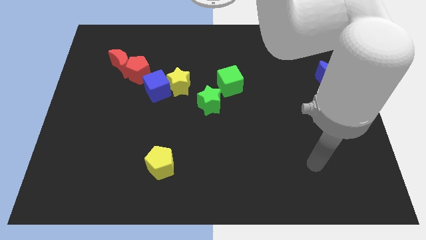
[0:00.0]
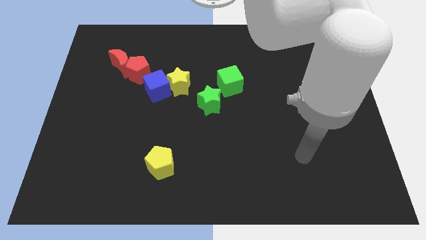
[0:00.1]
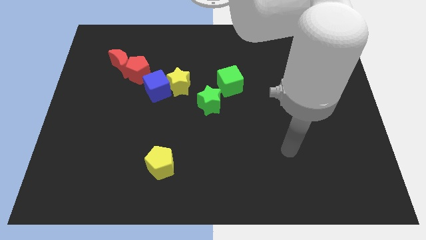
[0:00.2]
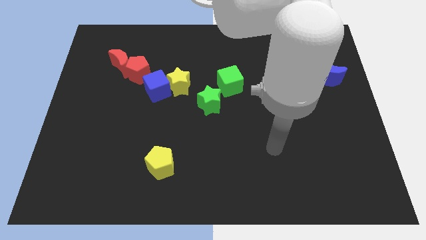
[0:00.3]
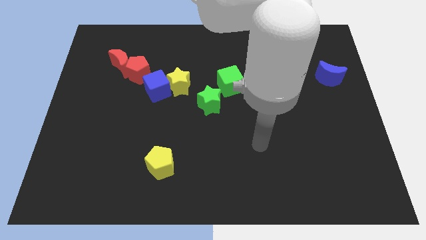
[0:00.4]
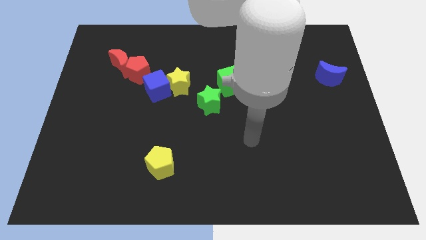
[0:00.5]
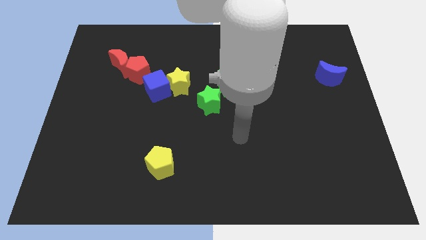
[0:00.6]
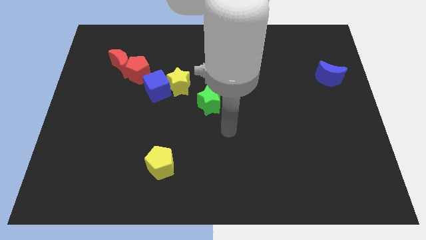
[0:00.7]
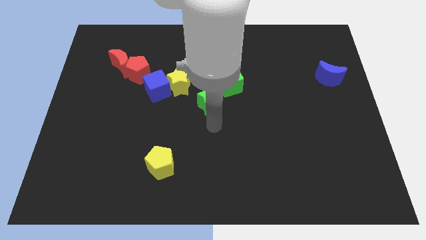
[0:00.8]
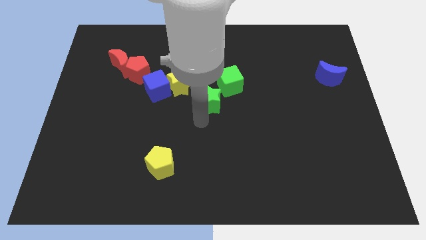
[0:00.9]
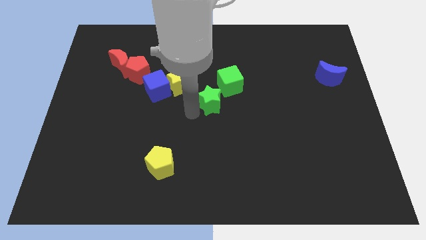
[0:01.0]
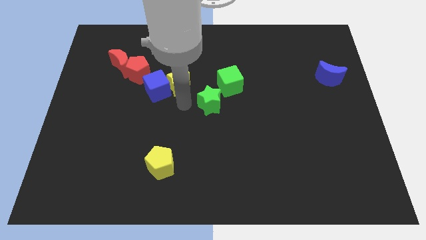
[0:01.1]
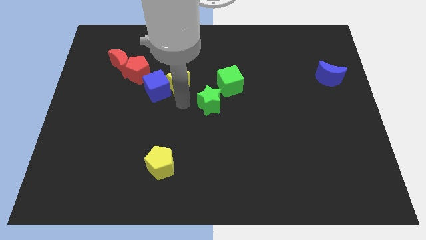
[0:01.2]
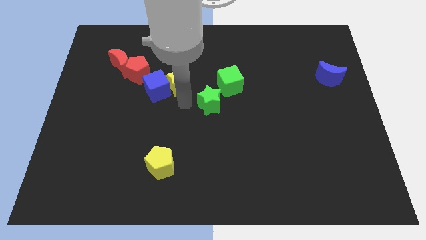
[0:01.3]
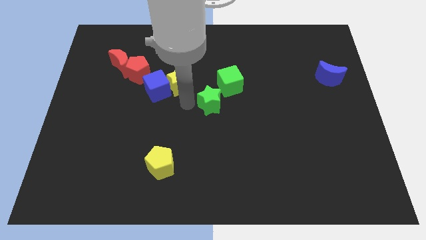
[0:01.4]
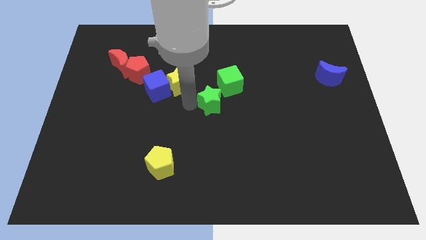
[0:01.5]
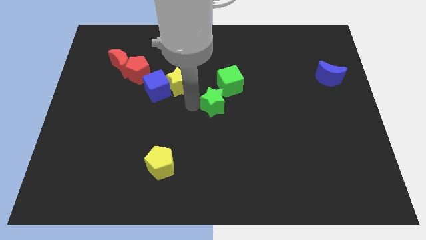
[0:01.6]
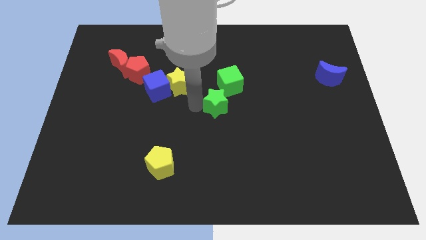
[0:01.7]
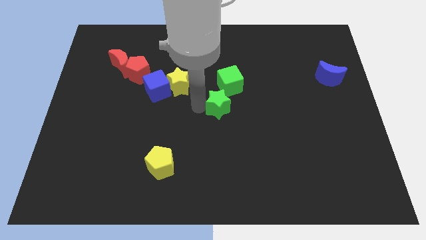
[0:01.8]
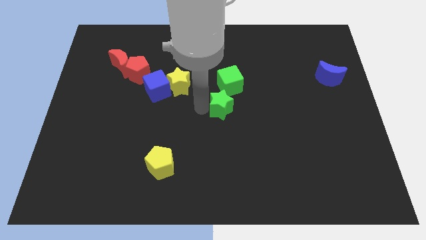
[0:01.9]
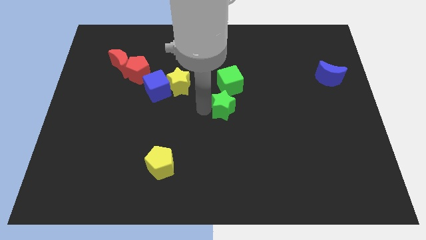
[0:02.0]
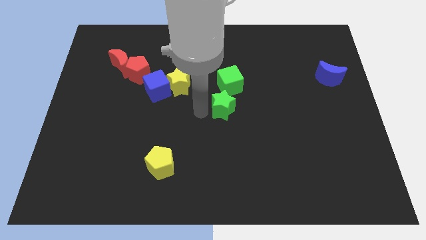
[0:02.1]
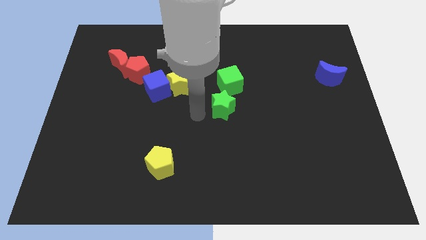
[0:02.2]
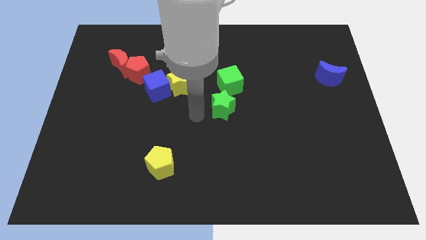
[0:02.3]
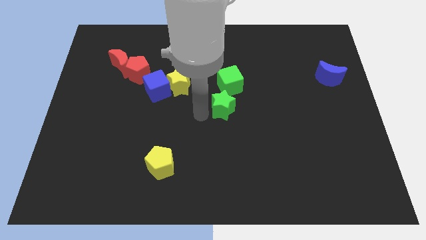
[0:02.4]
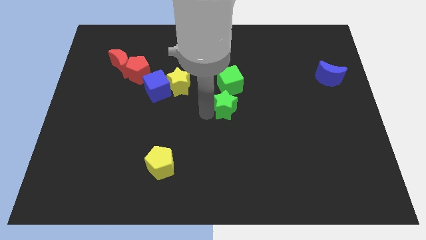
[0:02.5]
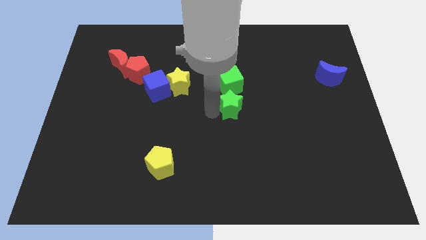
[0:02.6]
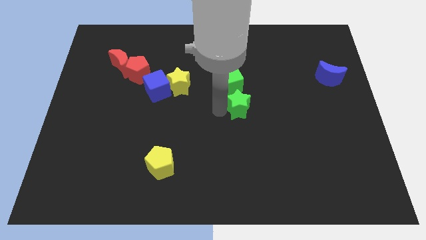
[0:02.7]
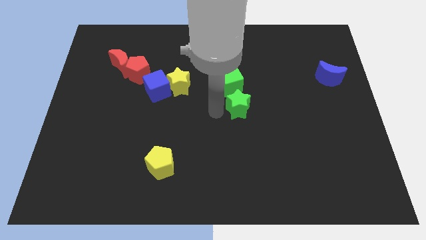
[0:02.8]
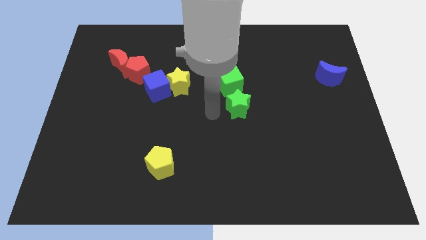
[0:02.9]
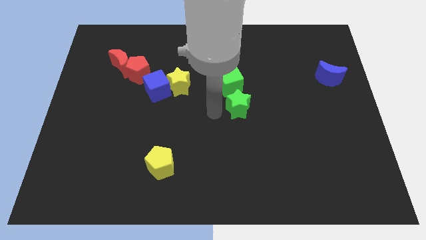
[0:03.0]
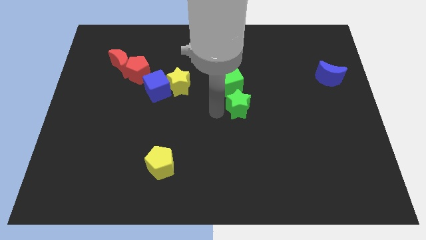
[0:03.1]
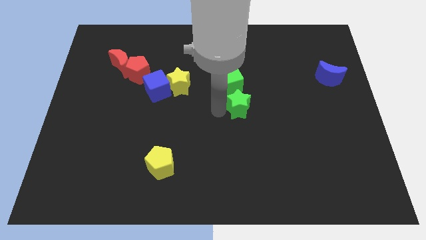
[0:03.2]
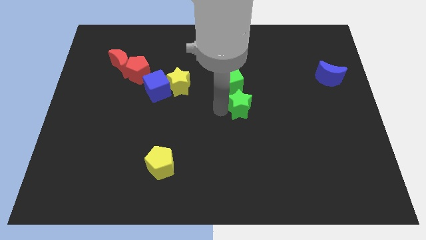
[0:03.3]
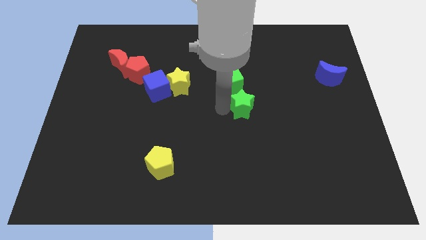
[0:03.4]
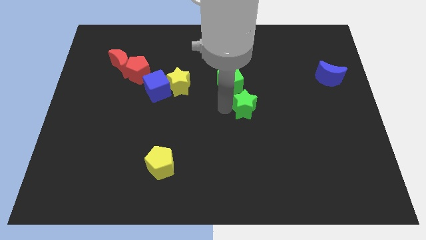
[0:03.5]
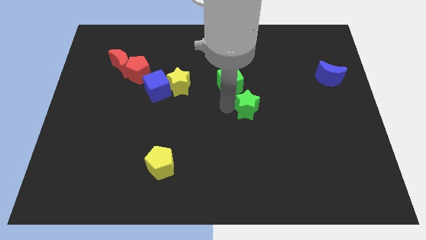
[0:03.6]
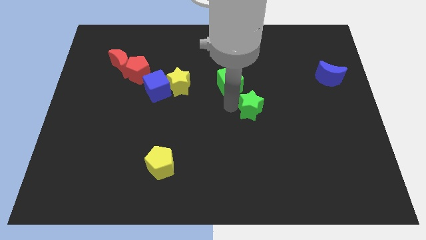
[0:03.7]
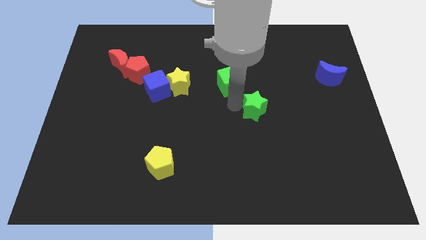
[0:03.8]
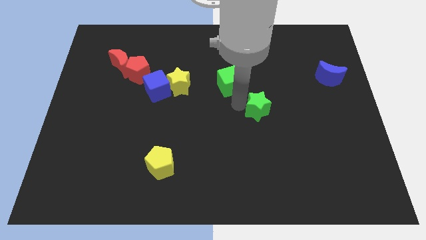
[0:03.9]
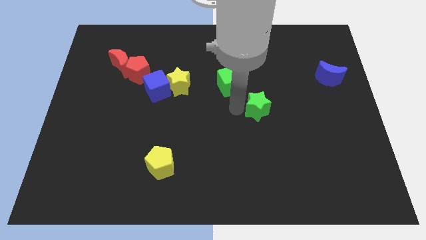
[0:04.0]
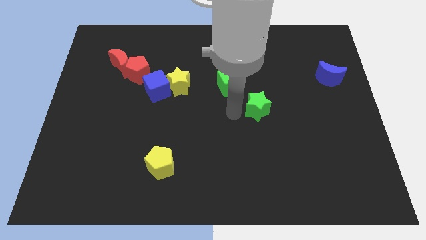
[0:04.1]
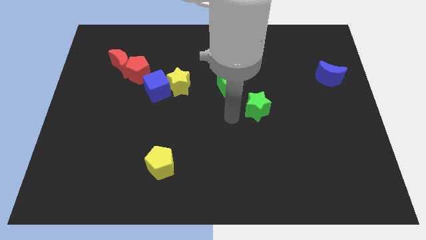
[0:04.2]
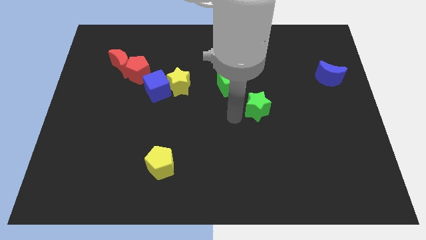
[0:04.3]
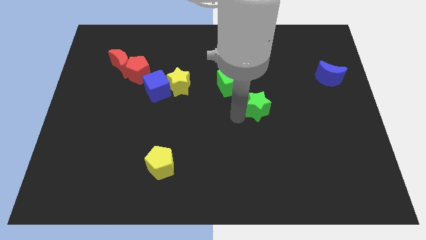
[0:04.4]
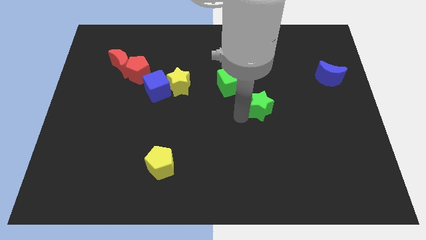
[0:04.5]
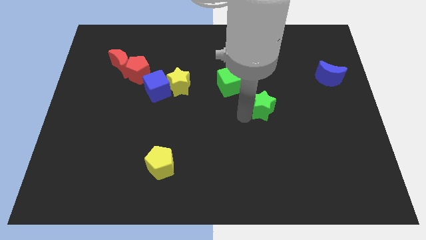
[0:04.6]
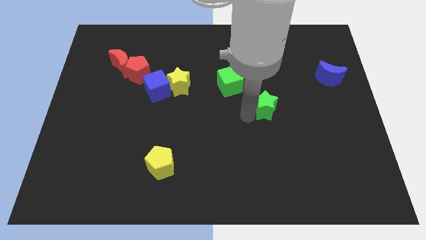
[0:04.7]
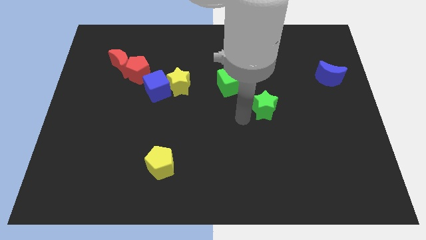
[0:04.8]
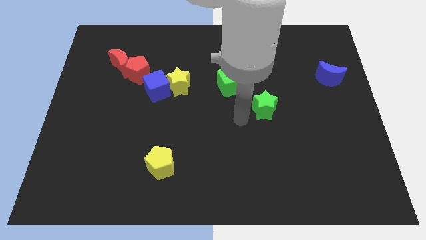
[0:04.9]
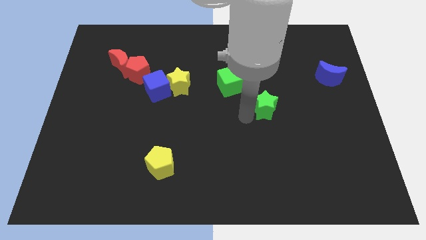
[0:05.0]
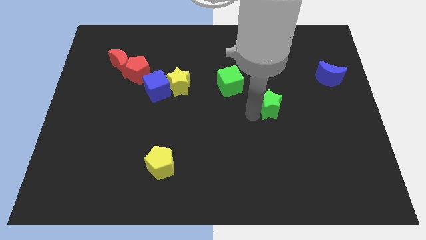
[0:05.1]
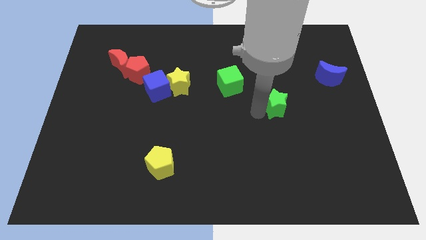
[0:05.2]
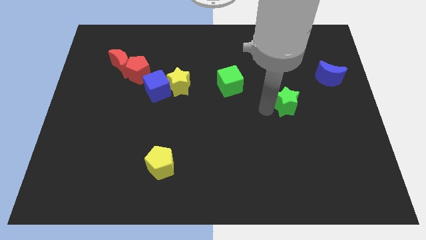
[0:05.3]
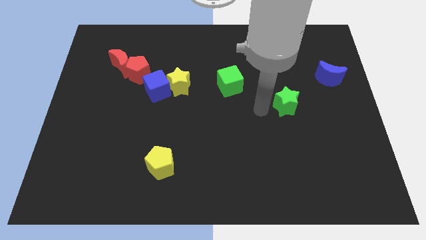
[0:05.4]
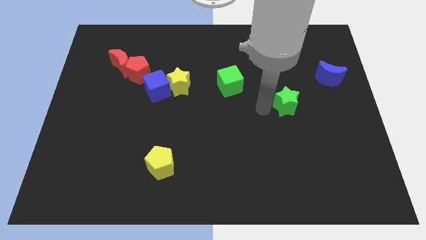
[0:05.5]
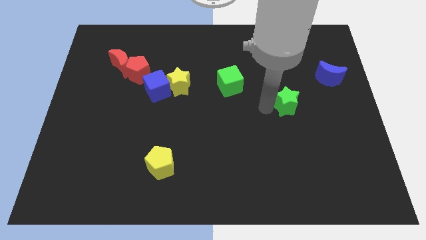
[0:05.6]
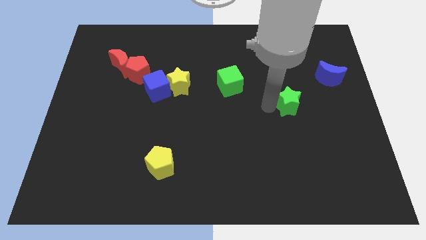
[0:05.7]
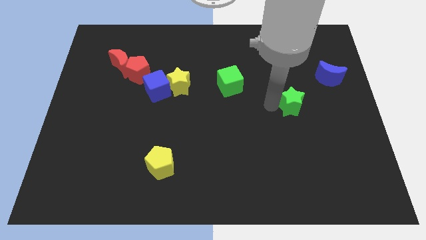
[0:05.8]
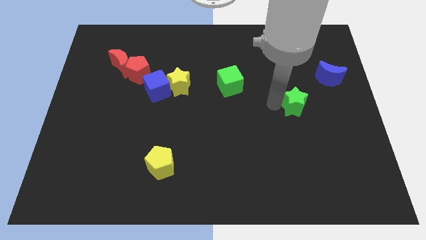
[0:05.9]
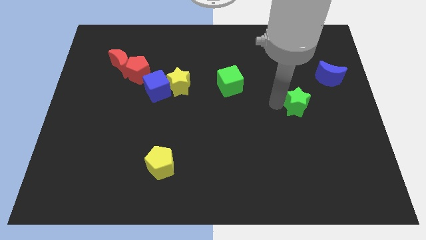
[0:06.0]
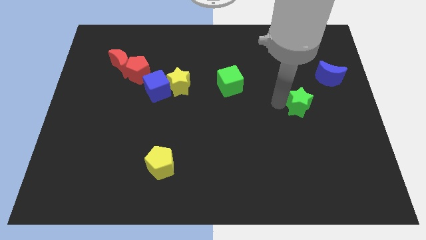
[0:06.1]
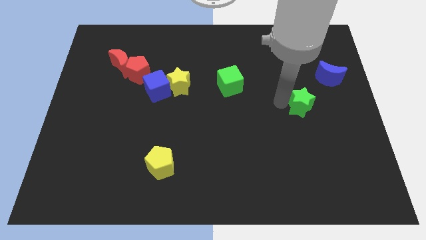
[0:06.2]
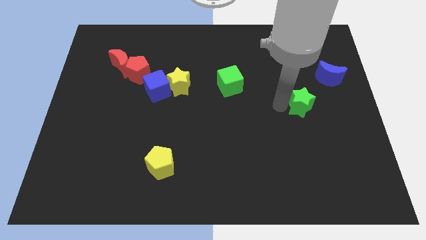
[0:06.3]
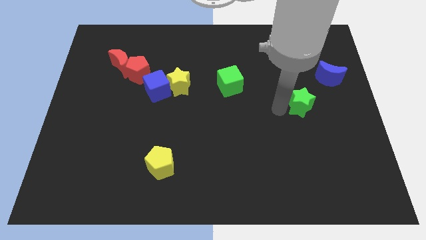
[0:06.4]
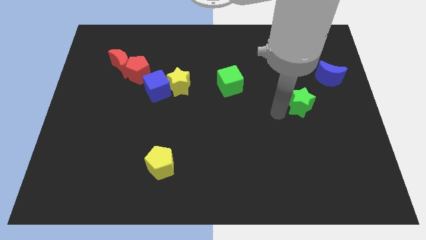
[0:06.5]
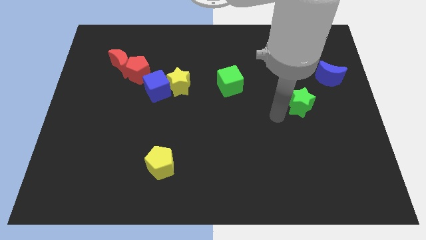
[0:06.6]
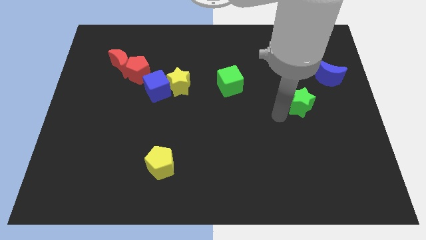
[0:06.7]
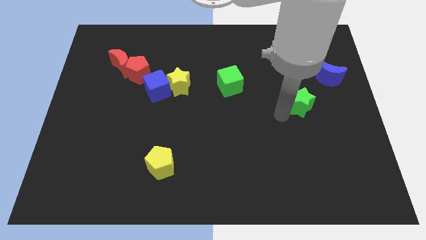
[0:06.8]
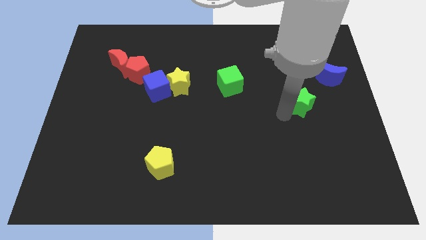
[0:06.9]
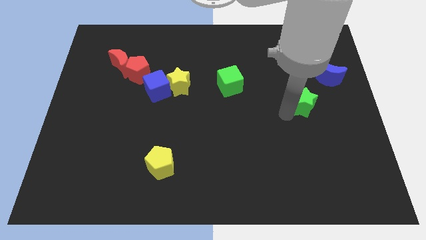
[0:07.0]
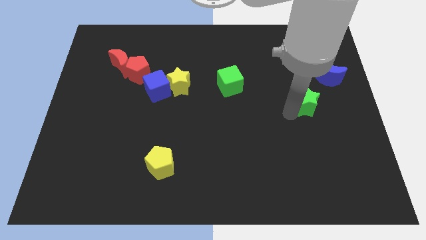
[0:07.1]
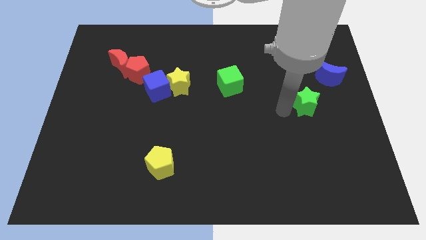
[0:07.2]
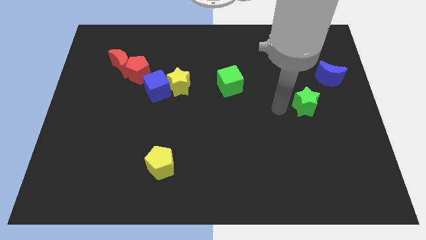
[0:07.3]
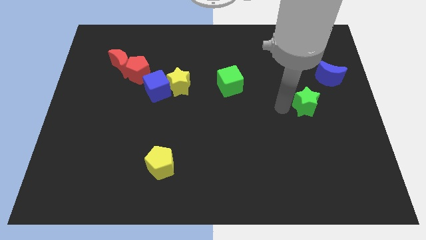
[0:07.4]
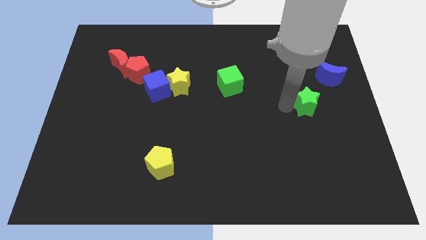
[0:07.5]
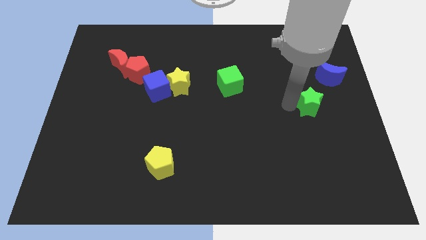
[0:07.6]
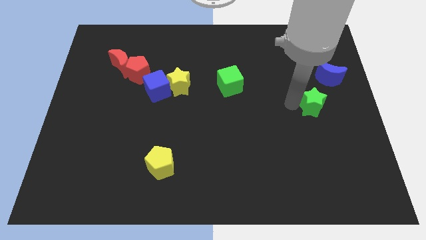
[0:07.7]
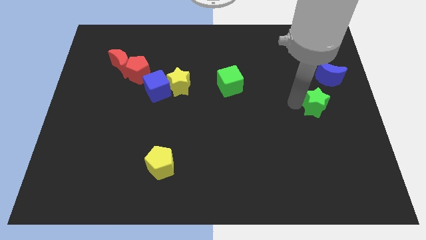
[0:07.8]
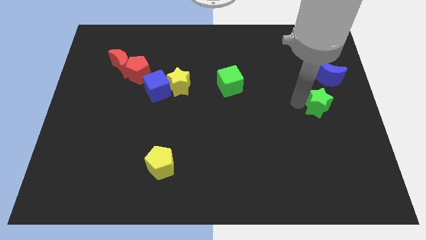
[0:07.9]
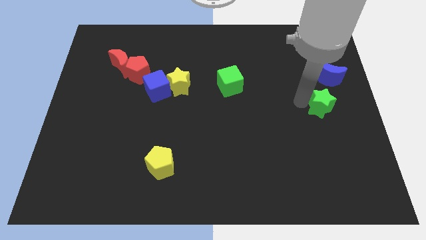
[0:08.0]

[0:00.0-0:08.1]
slide the green star to the center right
